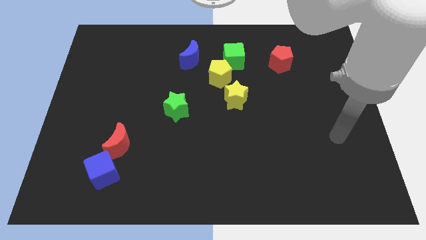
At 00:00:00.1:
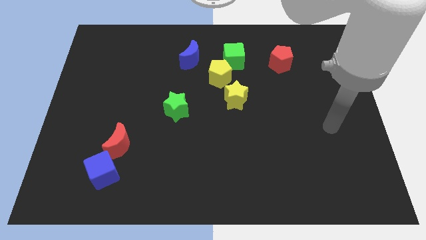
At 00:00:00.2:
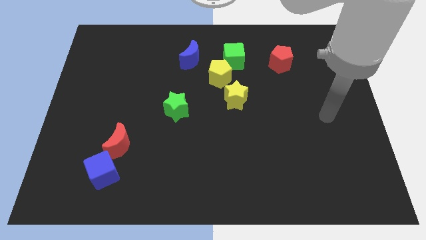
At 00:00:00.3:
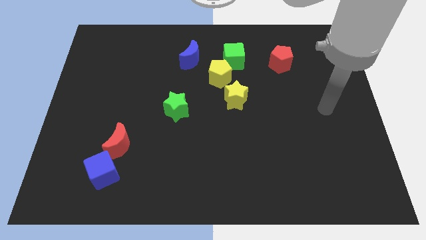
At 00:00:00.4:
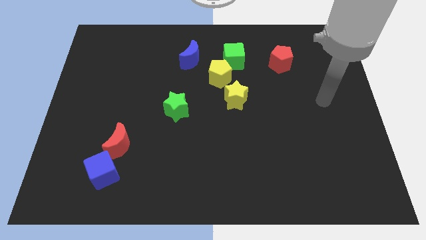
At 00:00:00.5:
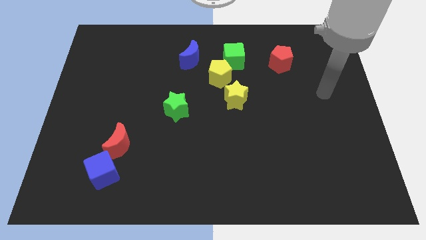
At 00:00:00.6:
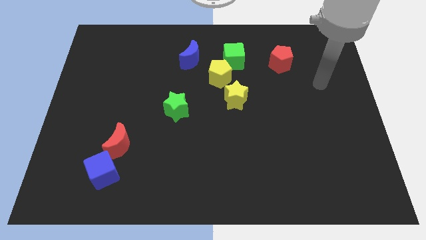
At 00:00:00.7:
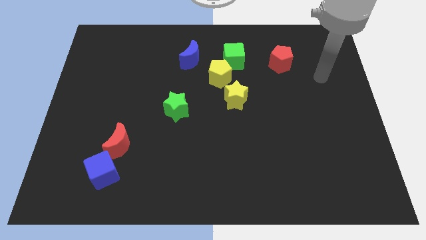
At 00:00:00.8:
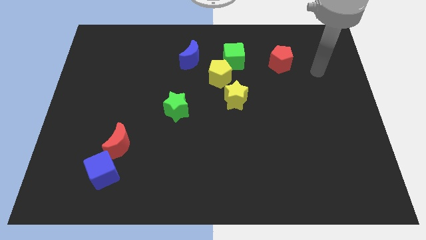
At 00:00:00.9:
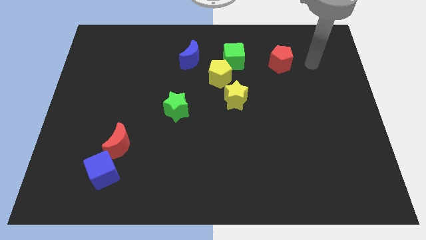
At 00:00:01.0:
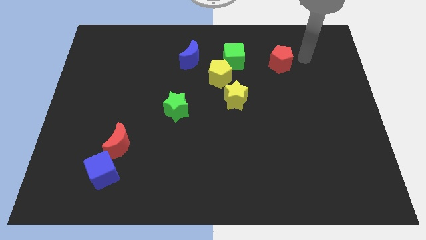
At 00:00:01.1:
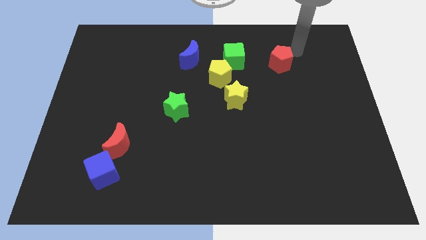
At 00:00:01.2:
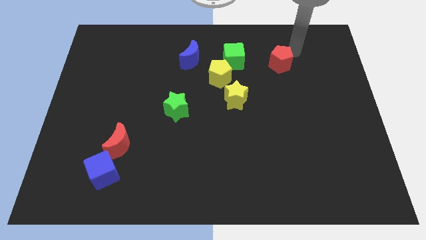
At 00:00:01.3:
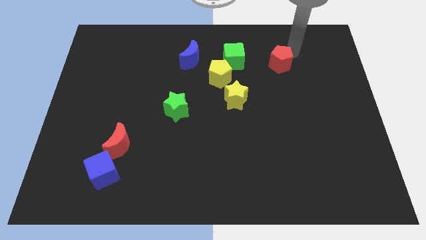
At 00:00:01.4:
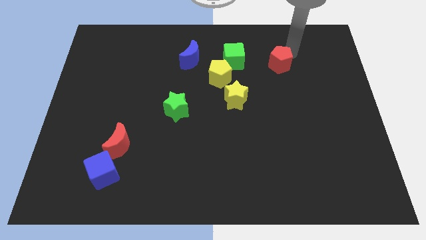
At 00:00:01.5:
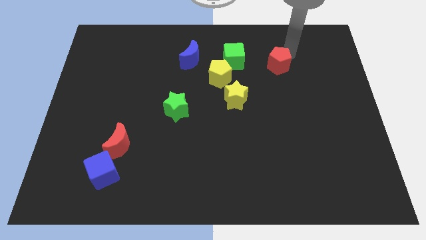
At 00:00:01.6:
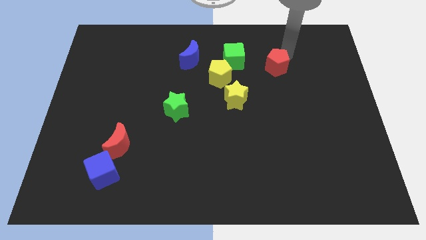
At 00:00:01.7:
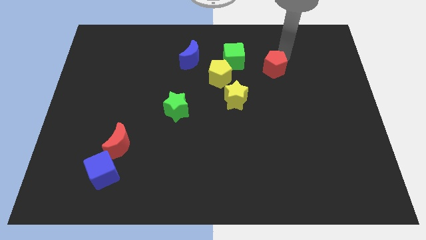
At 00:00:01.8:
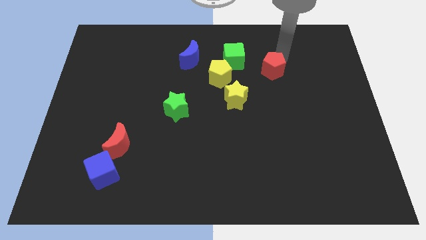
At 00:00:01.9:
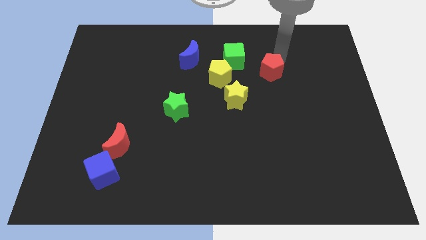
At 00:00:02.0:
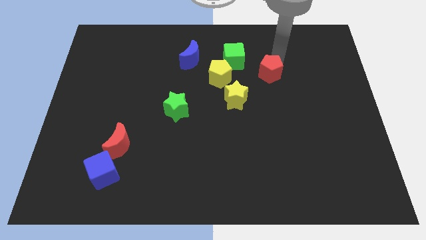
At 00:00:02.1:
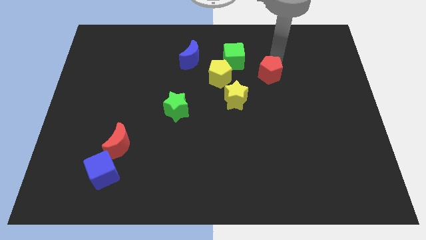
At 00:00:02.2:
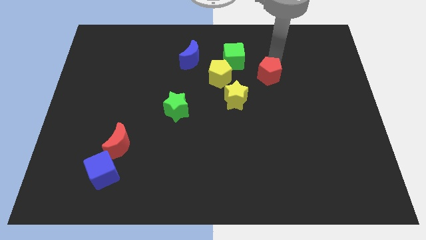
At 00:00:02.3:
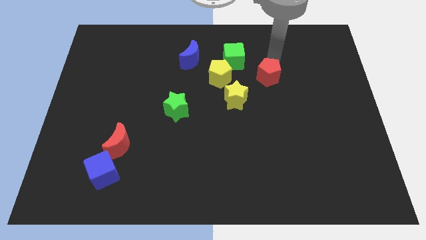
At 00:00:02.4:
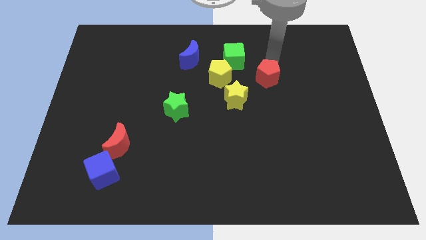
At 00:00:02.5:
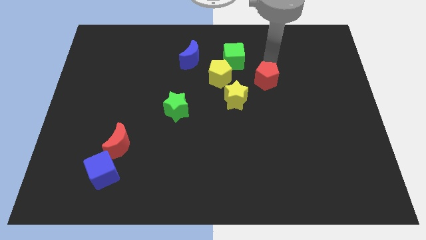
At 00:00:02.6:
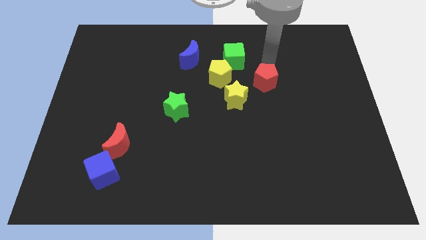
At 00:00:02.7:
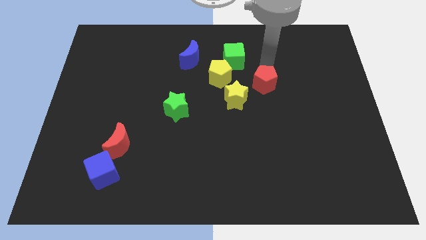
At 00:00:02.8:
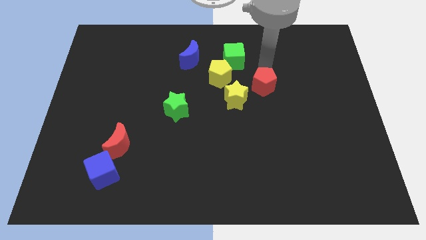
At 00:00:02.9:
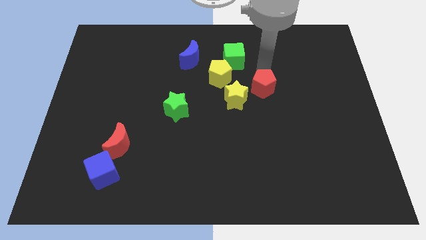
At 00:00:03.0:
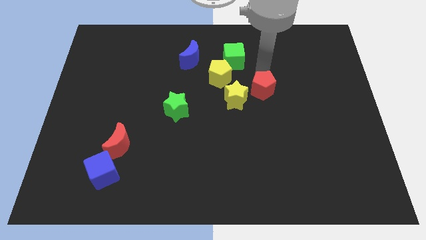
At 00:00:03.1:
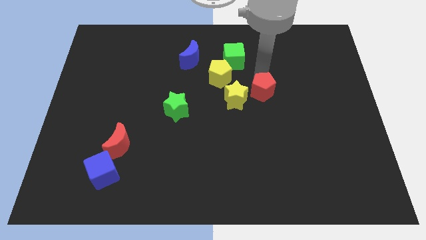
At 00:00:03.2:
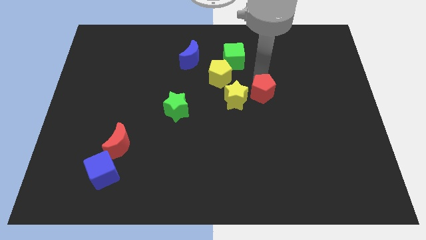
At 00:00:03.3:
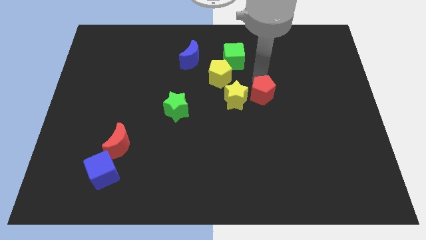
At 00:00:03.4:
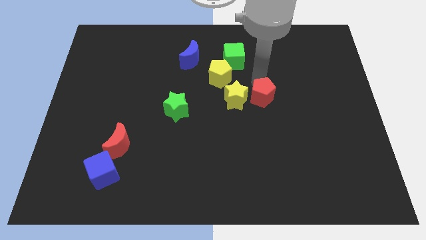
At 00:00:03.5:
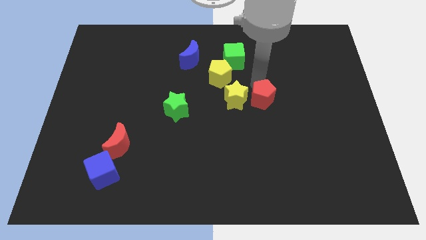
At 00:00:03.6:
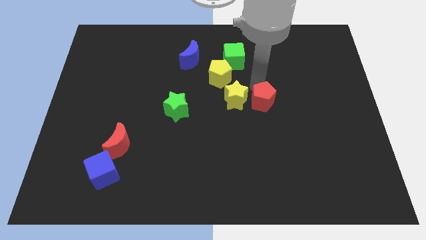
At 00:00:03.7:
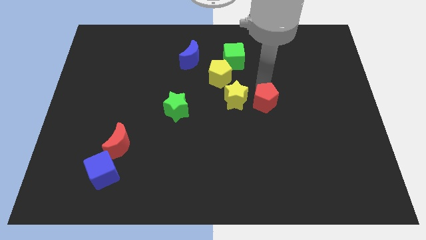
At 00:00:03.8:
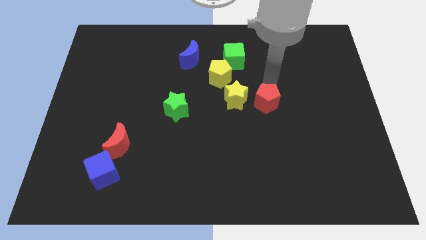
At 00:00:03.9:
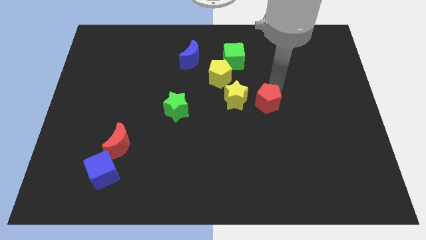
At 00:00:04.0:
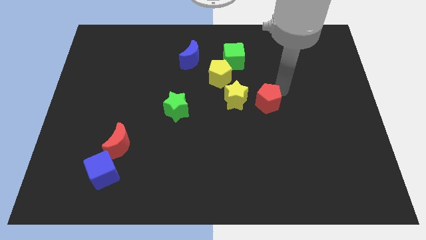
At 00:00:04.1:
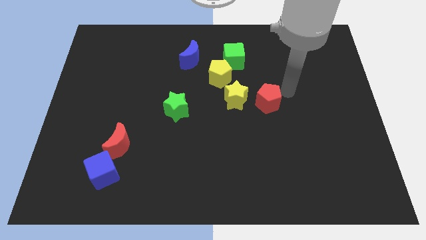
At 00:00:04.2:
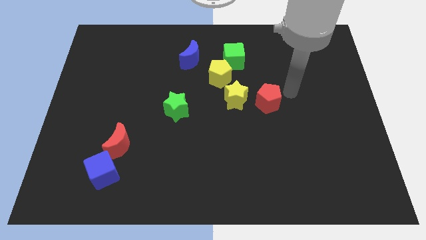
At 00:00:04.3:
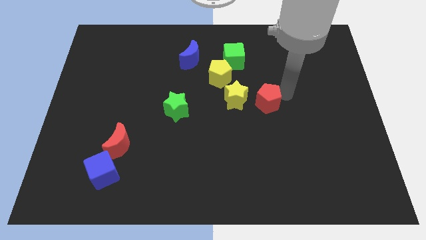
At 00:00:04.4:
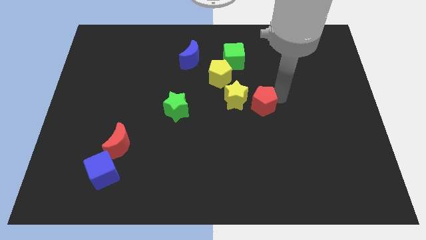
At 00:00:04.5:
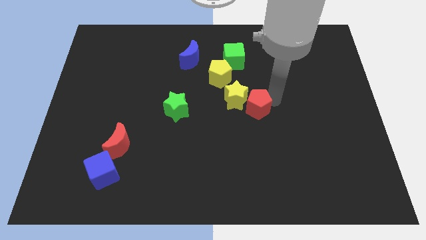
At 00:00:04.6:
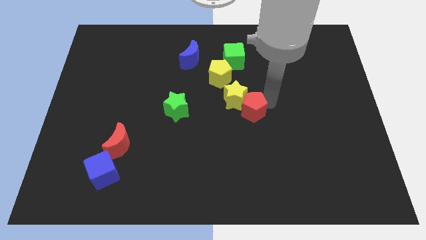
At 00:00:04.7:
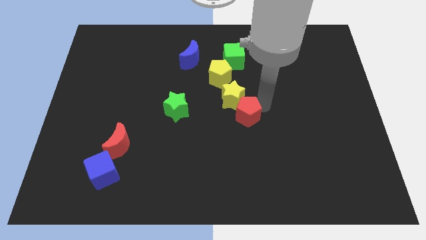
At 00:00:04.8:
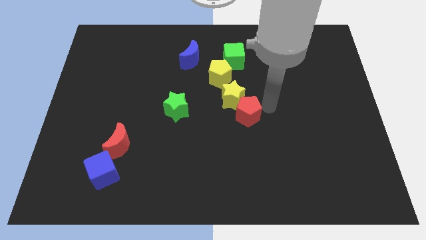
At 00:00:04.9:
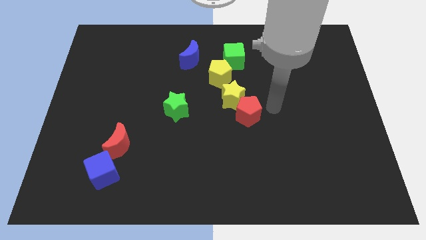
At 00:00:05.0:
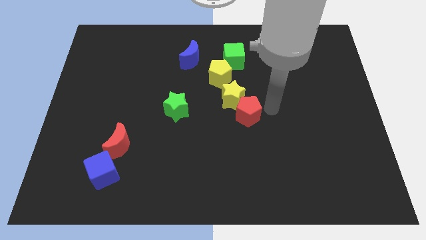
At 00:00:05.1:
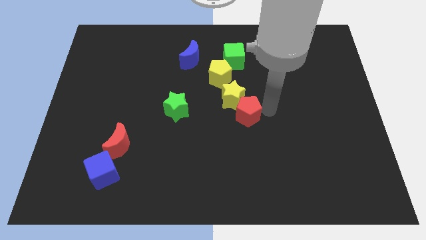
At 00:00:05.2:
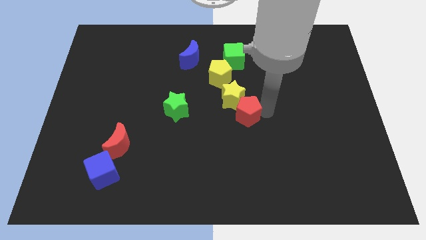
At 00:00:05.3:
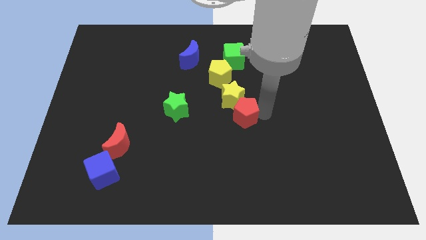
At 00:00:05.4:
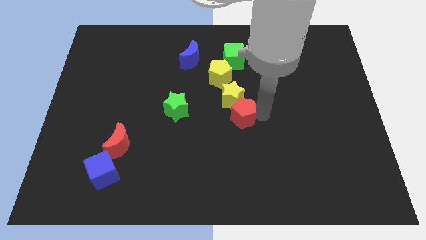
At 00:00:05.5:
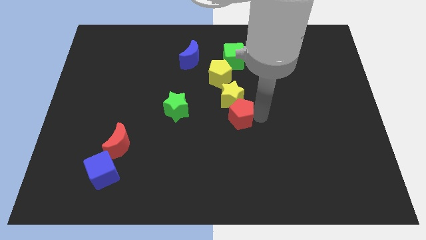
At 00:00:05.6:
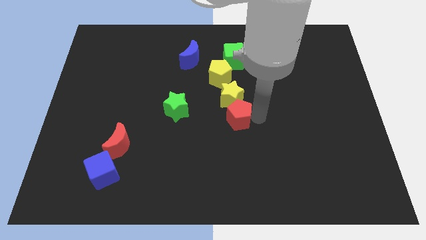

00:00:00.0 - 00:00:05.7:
slide the red pentagon downwards and to the left diagonally

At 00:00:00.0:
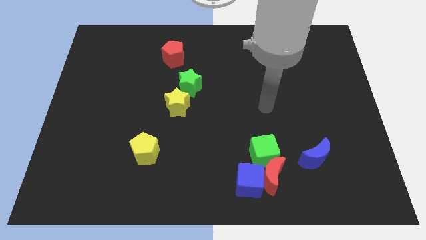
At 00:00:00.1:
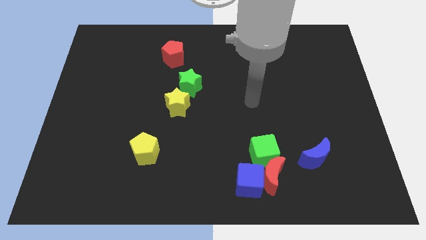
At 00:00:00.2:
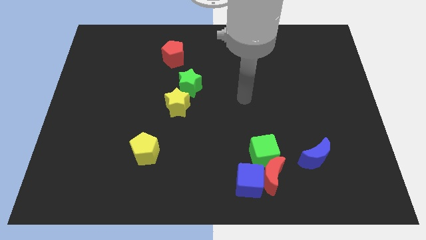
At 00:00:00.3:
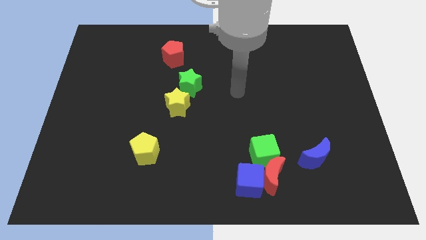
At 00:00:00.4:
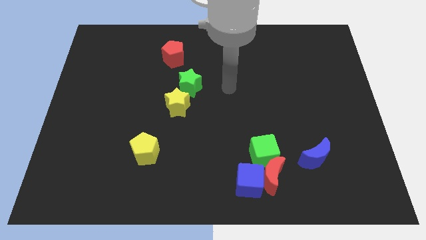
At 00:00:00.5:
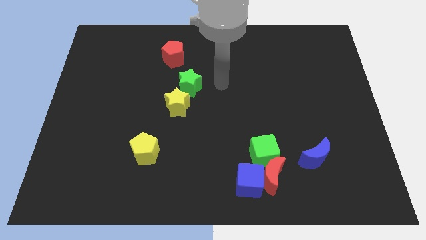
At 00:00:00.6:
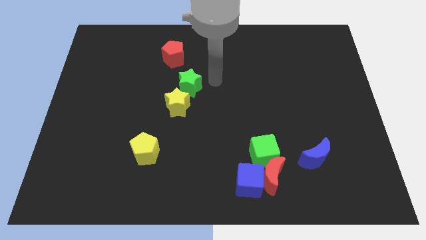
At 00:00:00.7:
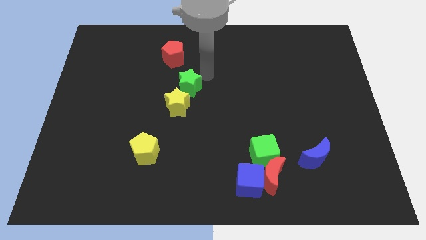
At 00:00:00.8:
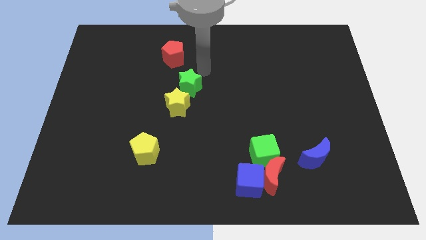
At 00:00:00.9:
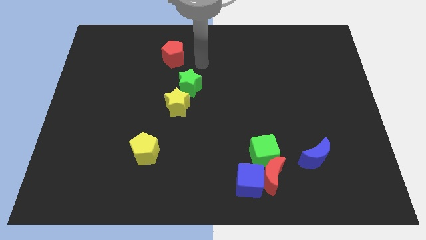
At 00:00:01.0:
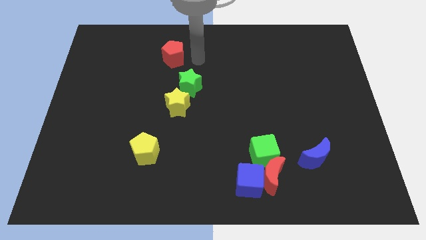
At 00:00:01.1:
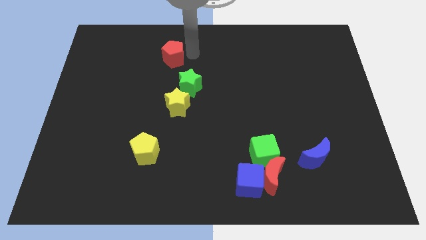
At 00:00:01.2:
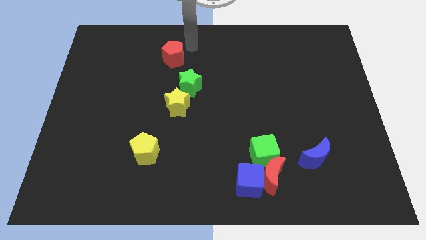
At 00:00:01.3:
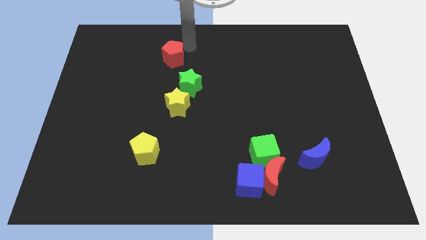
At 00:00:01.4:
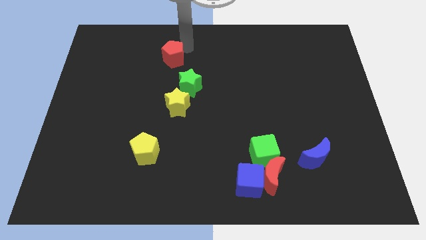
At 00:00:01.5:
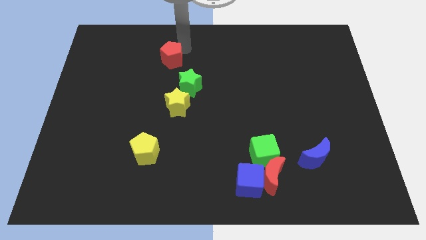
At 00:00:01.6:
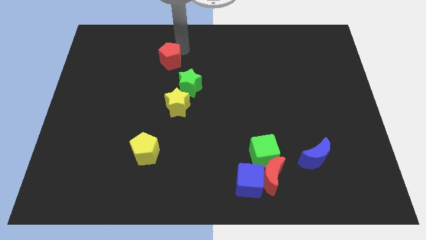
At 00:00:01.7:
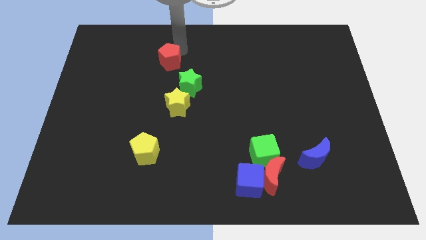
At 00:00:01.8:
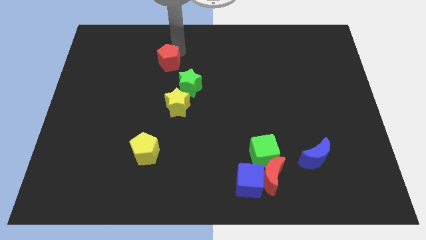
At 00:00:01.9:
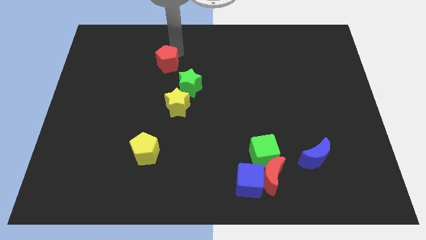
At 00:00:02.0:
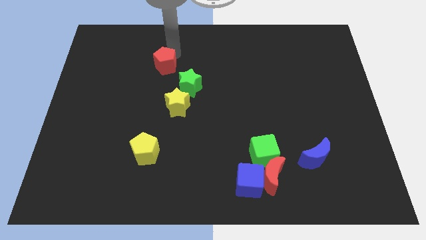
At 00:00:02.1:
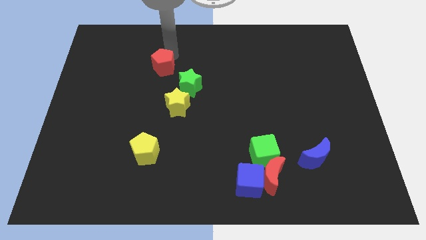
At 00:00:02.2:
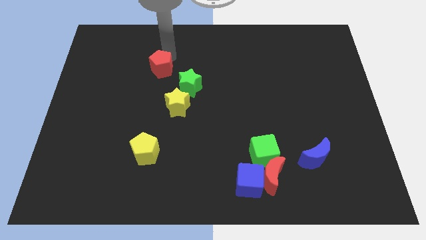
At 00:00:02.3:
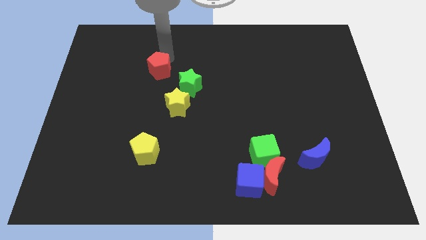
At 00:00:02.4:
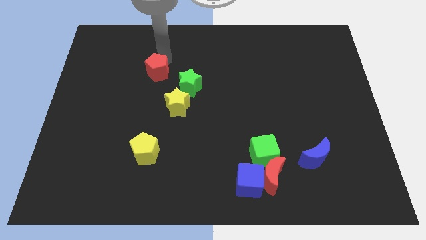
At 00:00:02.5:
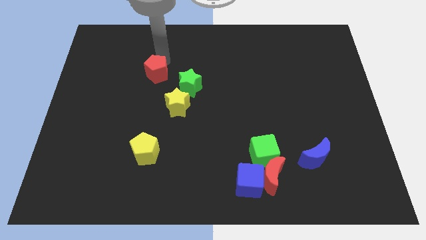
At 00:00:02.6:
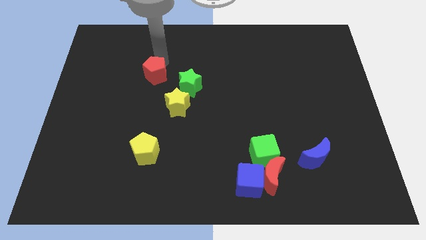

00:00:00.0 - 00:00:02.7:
slide the red pentagon down and to the left diagonally a little bit
